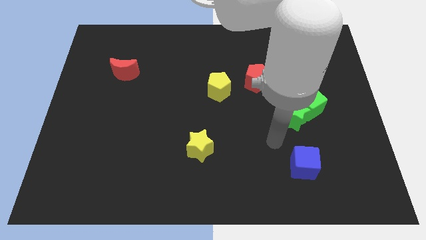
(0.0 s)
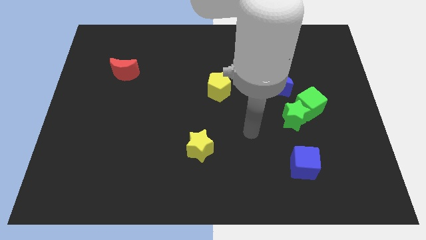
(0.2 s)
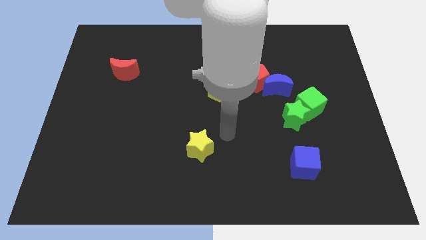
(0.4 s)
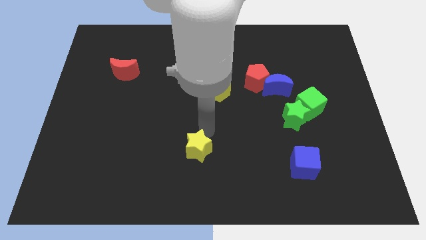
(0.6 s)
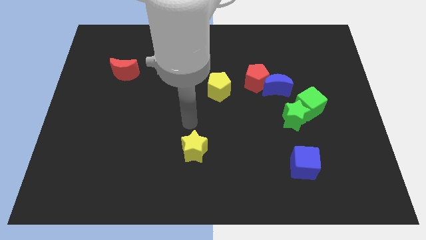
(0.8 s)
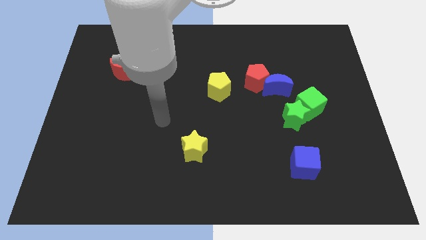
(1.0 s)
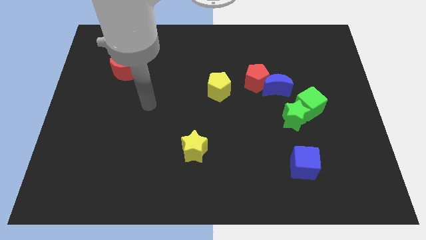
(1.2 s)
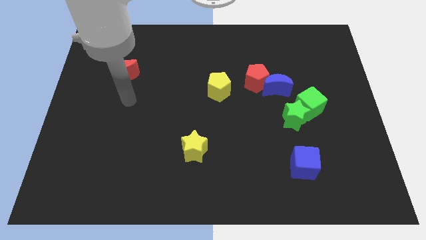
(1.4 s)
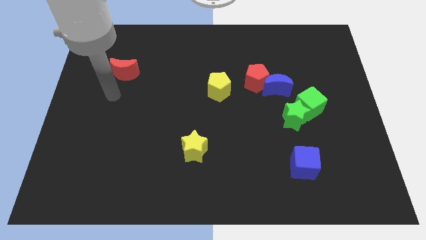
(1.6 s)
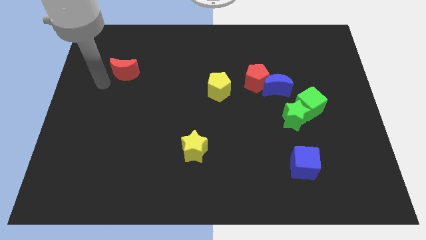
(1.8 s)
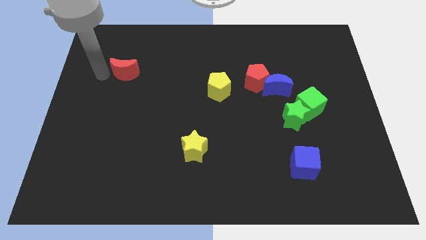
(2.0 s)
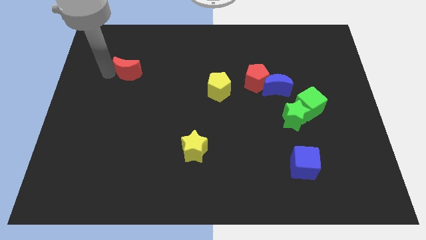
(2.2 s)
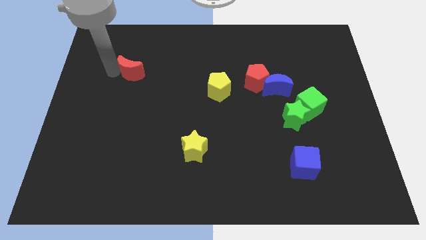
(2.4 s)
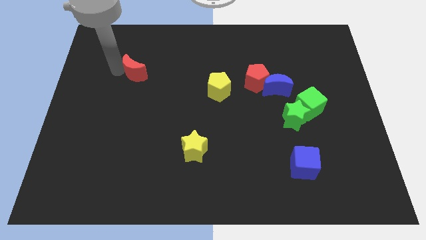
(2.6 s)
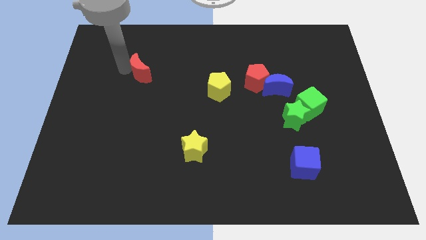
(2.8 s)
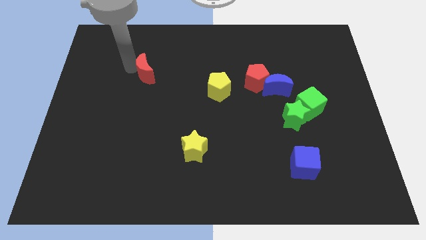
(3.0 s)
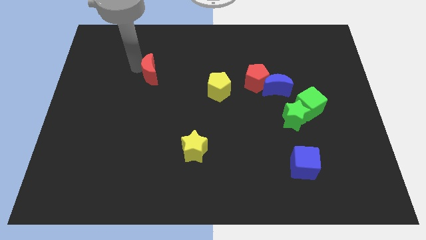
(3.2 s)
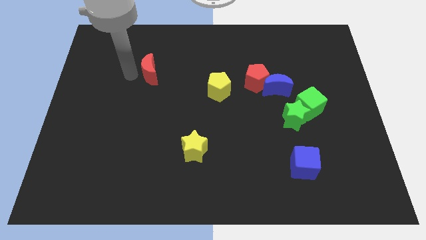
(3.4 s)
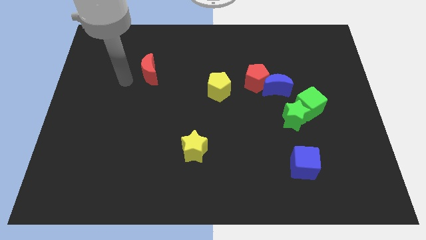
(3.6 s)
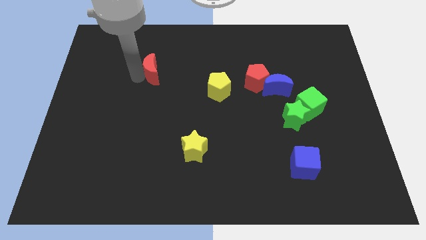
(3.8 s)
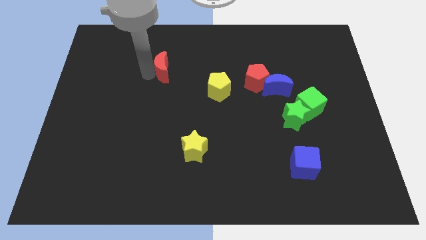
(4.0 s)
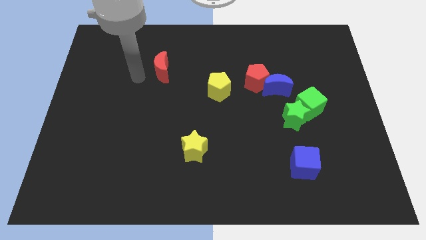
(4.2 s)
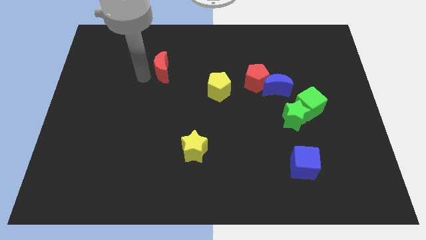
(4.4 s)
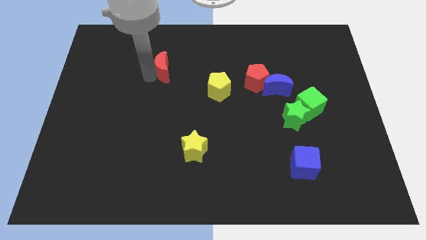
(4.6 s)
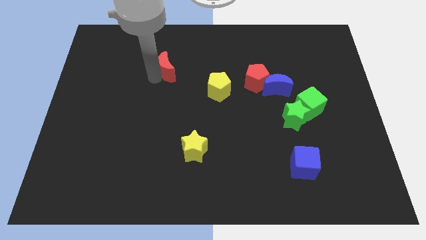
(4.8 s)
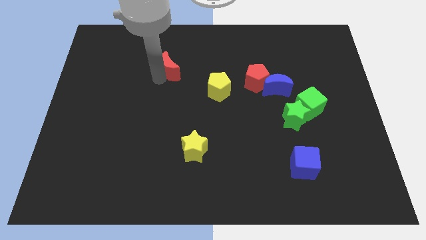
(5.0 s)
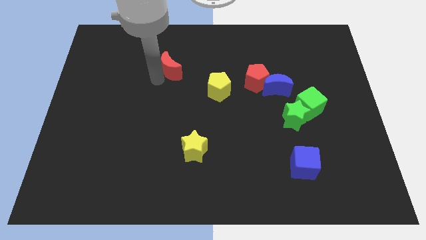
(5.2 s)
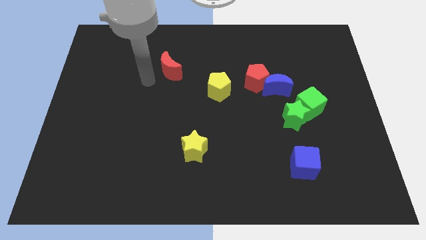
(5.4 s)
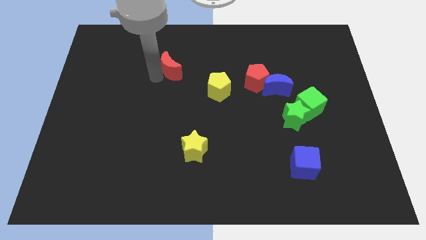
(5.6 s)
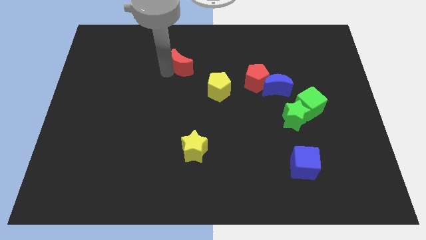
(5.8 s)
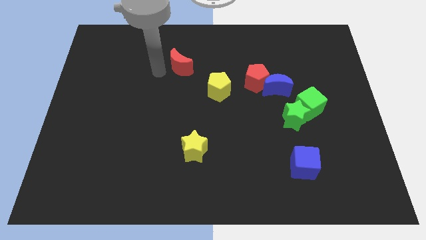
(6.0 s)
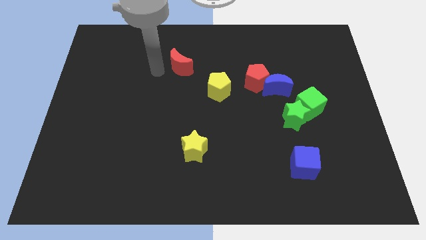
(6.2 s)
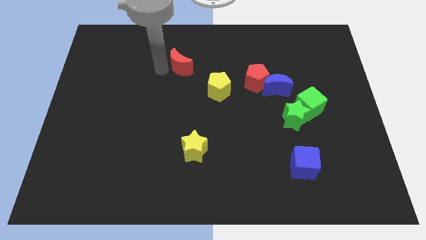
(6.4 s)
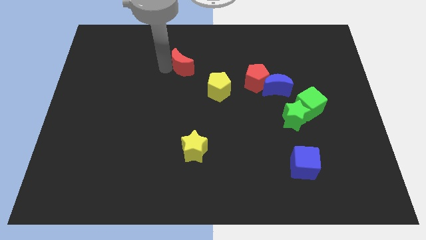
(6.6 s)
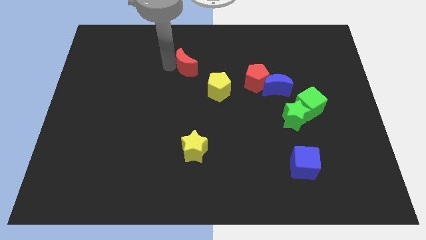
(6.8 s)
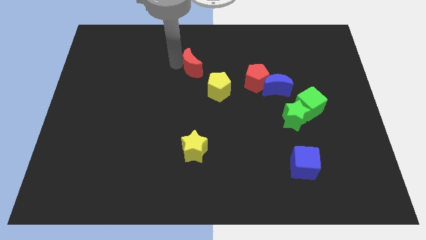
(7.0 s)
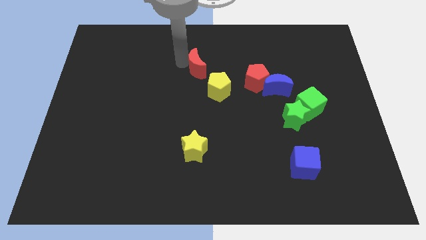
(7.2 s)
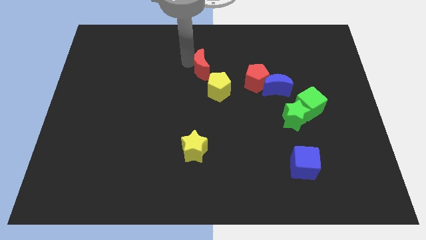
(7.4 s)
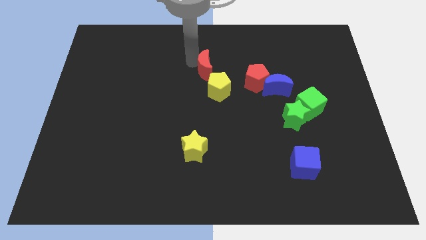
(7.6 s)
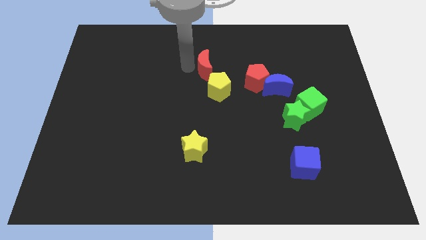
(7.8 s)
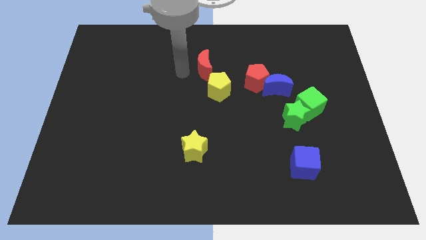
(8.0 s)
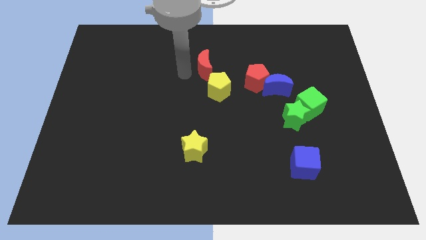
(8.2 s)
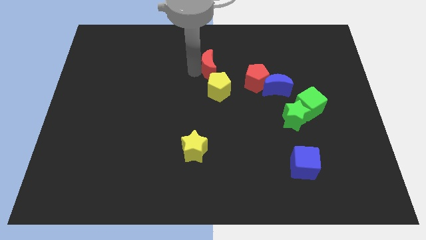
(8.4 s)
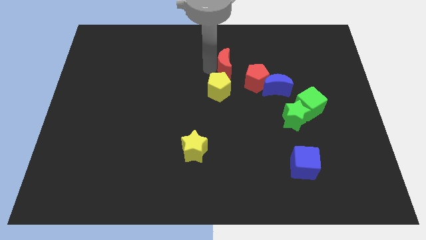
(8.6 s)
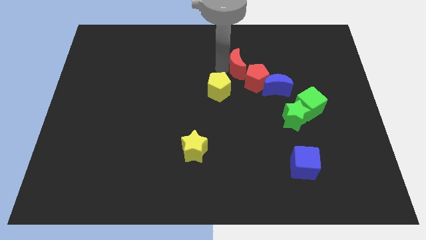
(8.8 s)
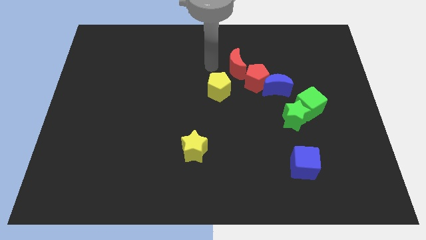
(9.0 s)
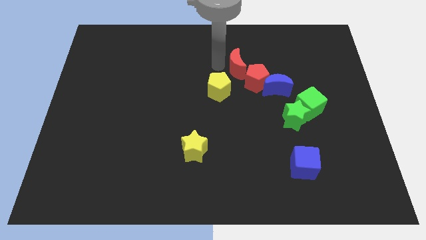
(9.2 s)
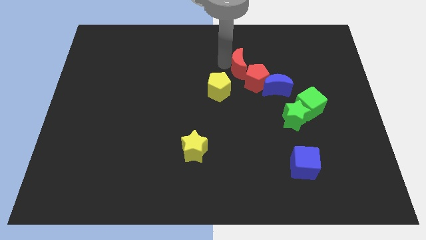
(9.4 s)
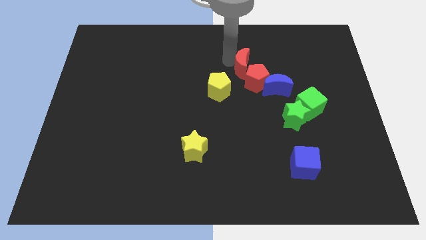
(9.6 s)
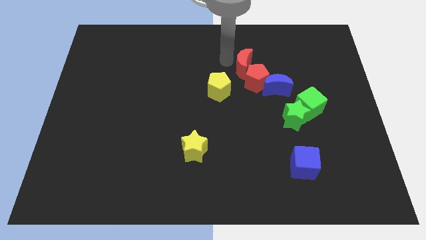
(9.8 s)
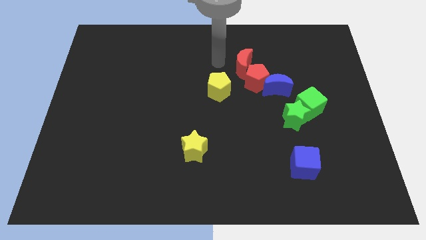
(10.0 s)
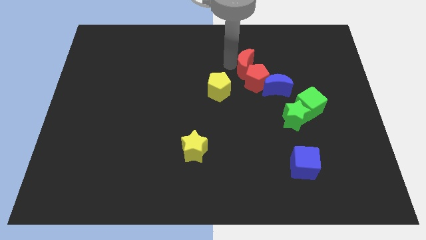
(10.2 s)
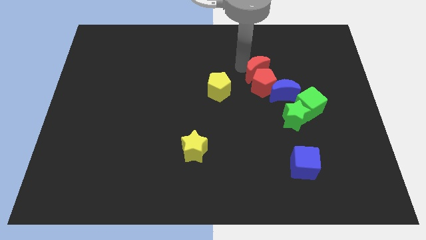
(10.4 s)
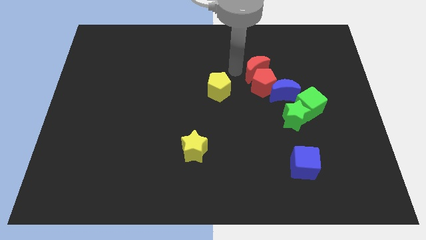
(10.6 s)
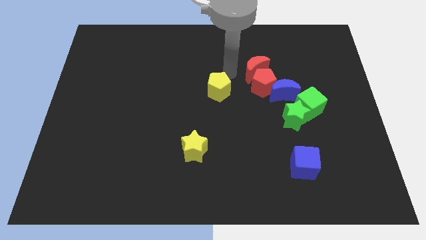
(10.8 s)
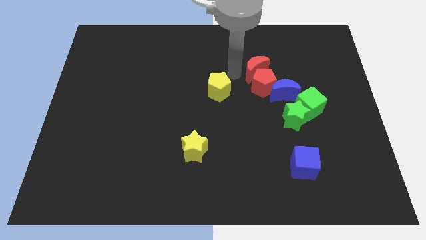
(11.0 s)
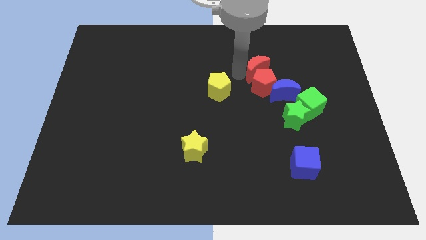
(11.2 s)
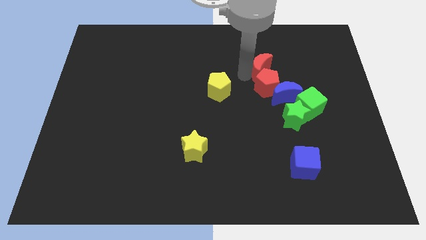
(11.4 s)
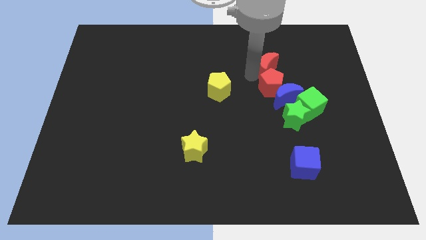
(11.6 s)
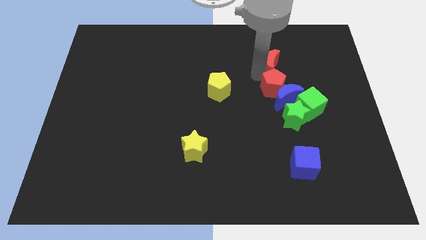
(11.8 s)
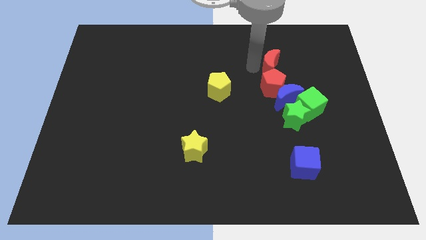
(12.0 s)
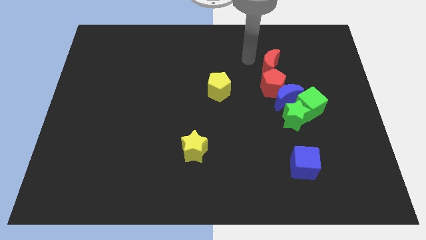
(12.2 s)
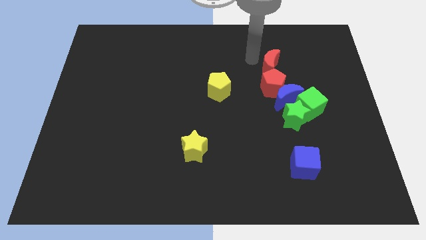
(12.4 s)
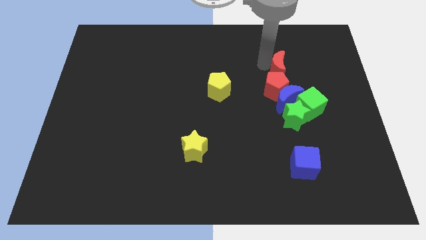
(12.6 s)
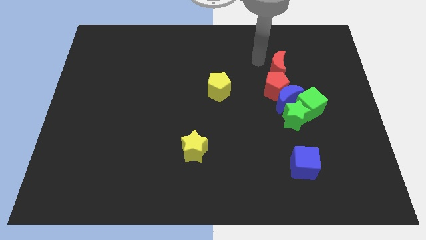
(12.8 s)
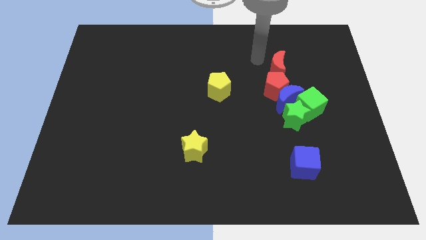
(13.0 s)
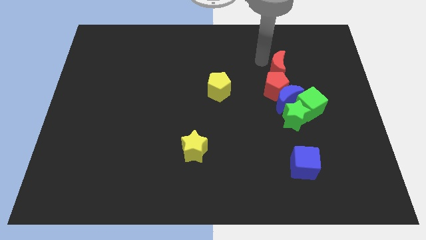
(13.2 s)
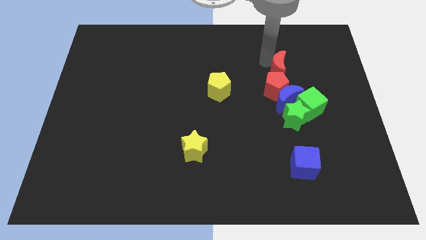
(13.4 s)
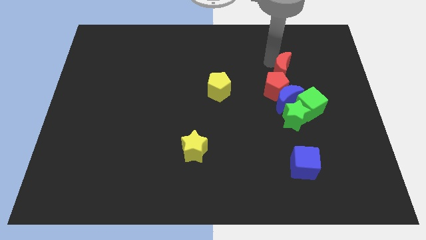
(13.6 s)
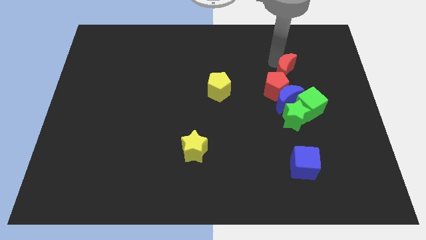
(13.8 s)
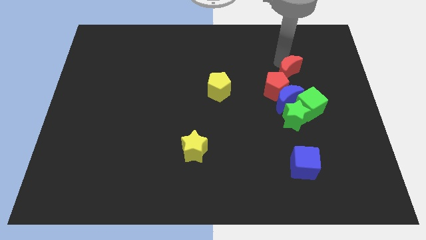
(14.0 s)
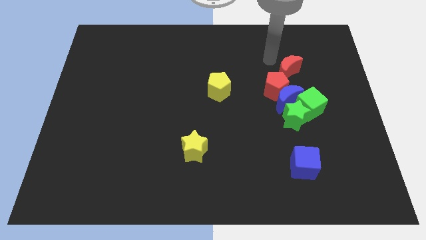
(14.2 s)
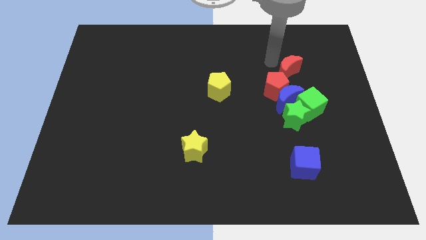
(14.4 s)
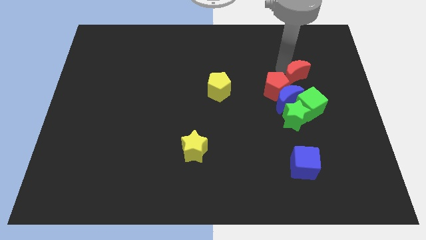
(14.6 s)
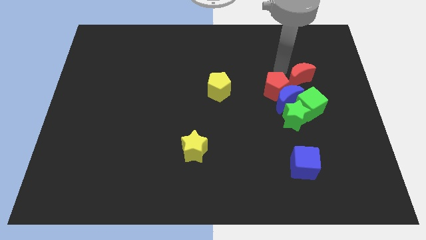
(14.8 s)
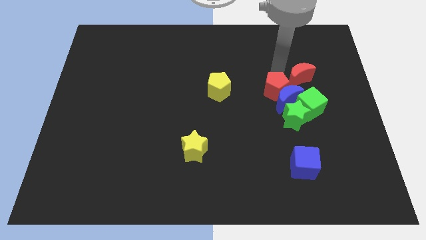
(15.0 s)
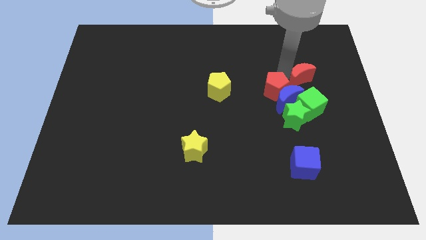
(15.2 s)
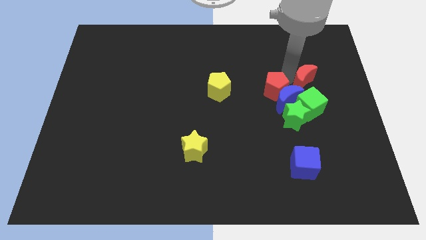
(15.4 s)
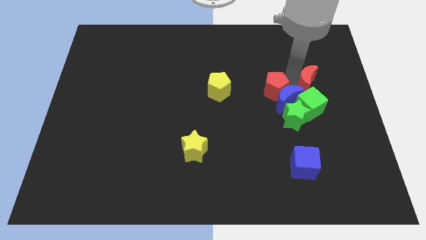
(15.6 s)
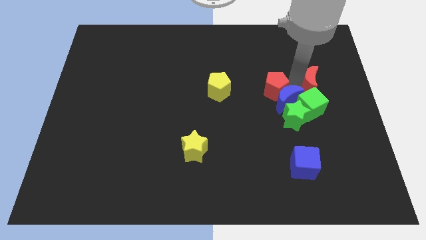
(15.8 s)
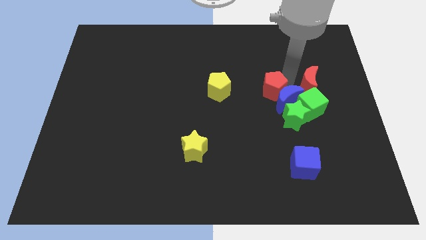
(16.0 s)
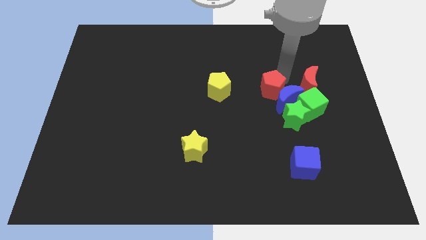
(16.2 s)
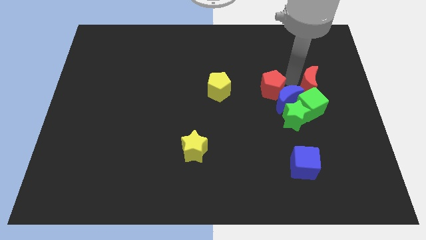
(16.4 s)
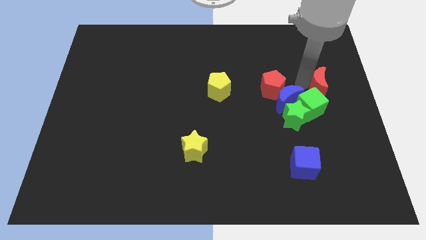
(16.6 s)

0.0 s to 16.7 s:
move the red moon to the right side of the board
